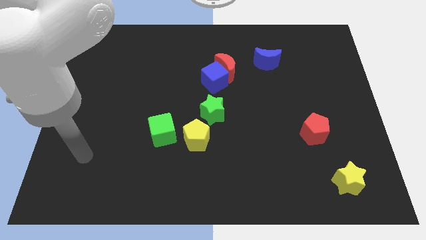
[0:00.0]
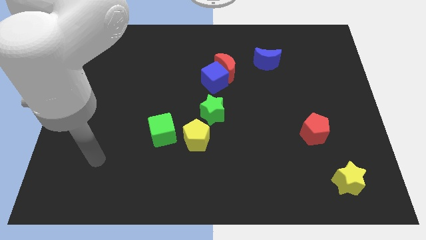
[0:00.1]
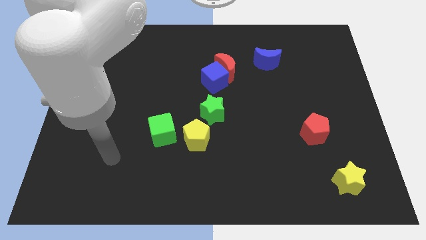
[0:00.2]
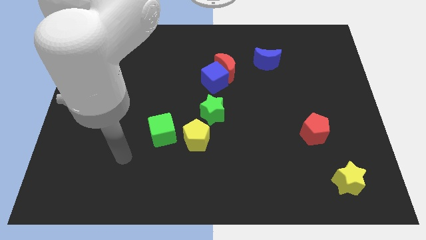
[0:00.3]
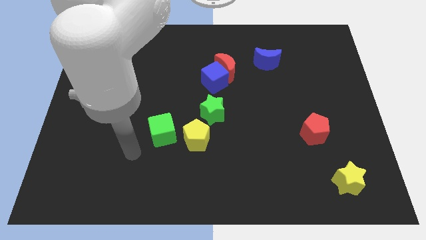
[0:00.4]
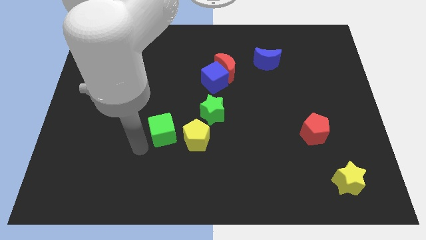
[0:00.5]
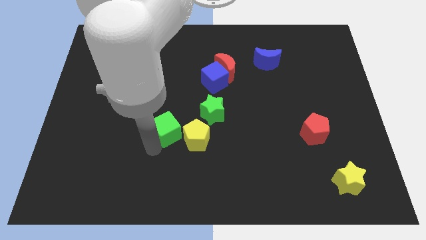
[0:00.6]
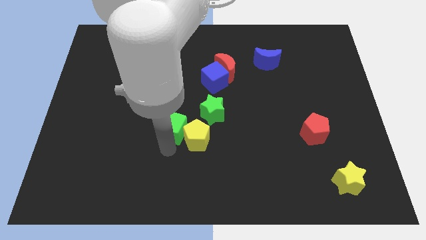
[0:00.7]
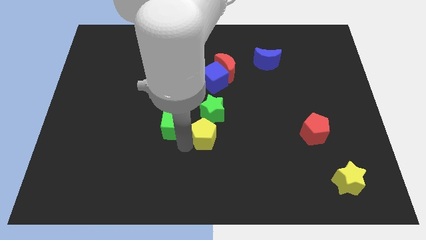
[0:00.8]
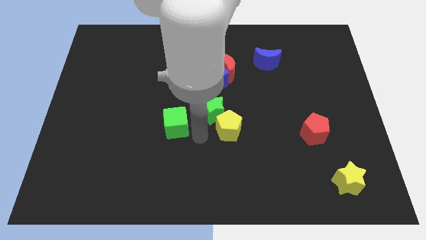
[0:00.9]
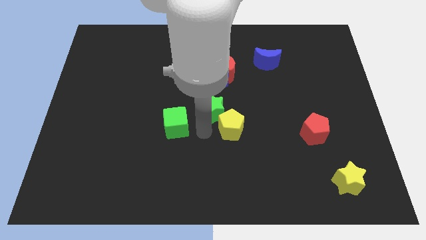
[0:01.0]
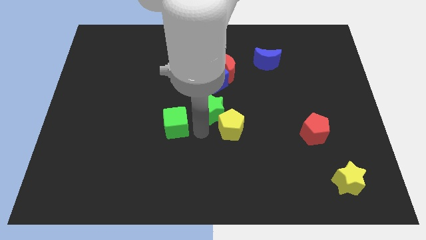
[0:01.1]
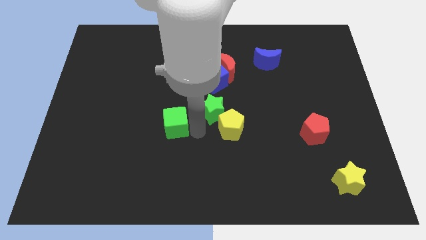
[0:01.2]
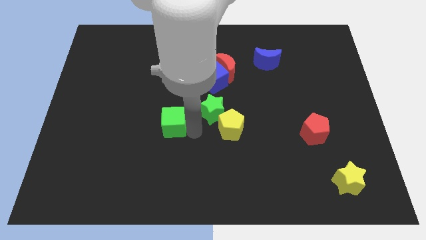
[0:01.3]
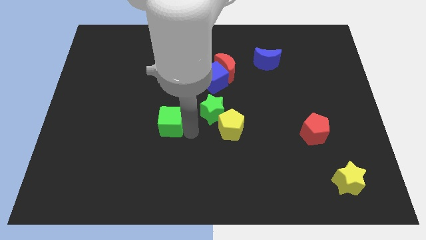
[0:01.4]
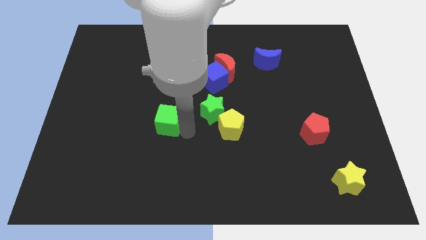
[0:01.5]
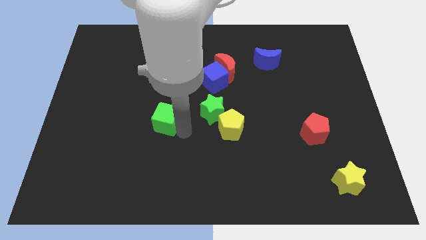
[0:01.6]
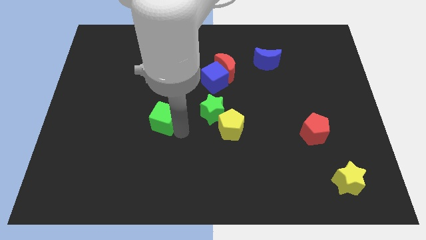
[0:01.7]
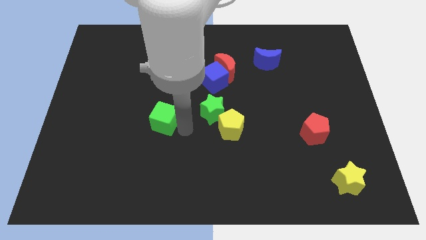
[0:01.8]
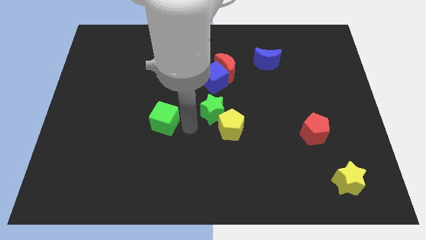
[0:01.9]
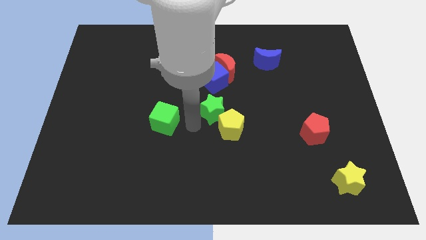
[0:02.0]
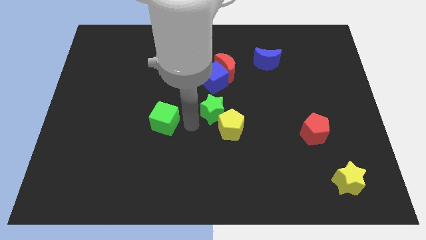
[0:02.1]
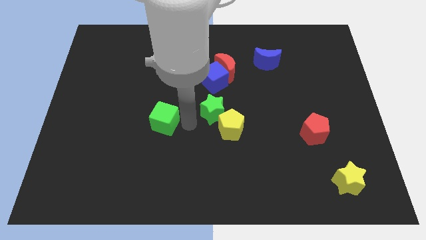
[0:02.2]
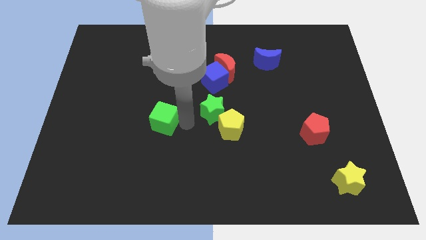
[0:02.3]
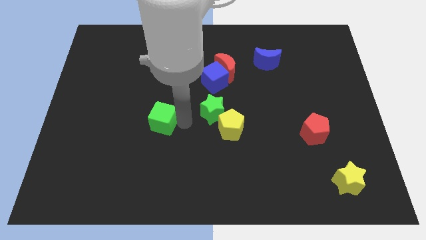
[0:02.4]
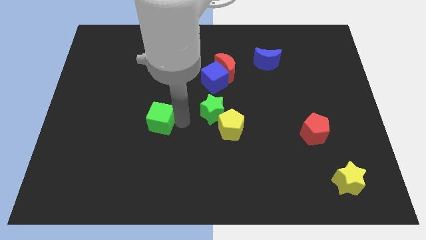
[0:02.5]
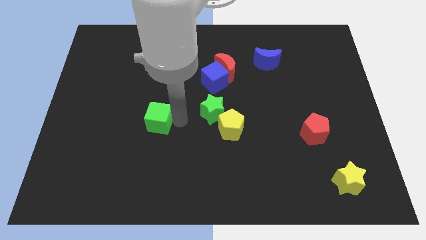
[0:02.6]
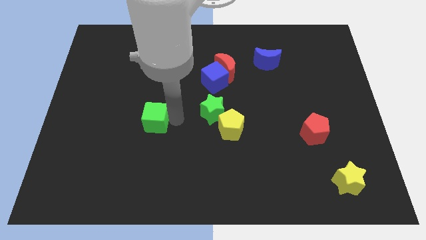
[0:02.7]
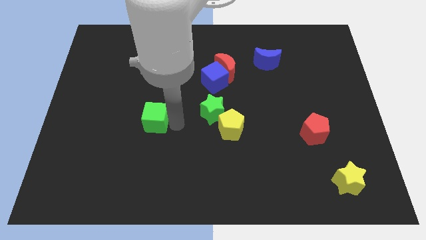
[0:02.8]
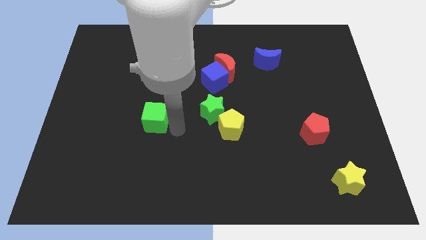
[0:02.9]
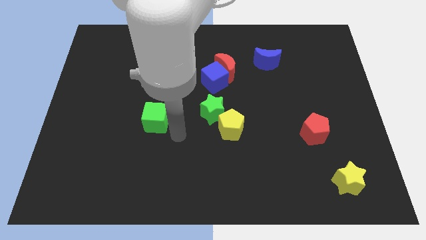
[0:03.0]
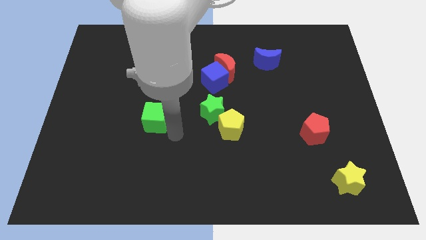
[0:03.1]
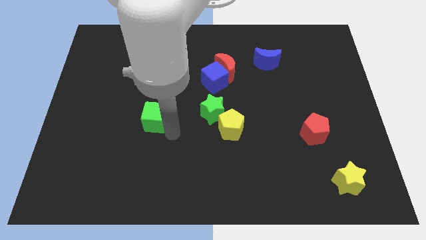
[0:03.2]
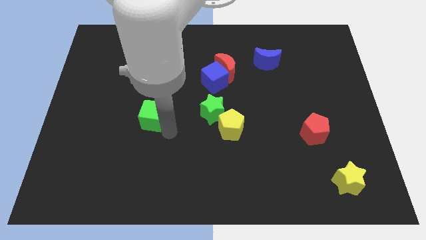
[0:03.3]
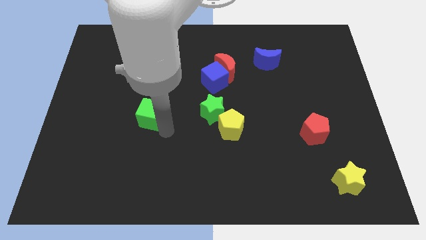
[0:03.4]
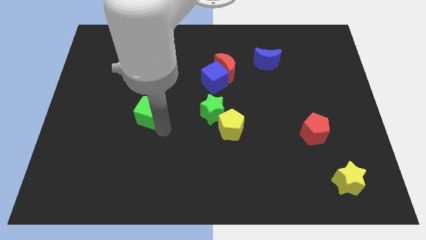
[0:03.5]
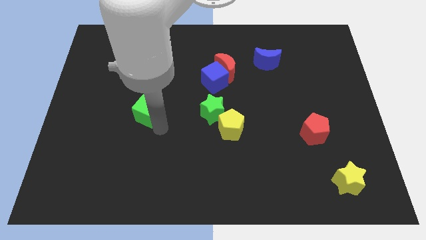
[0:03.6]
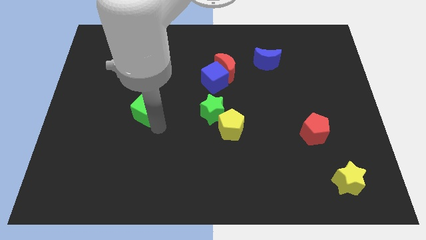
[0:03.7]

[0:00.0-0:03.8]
slide the green cube upwards and left somewhat

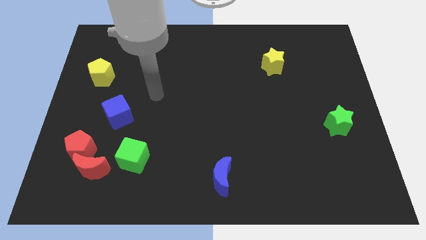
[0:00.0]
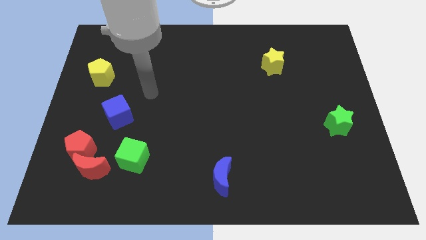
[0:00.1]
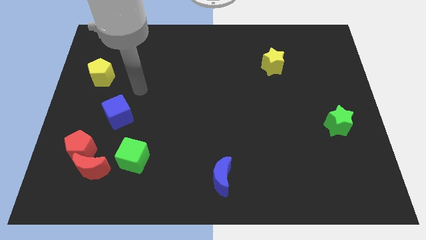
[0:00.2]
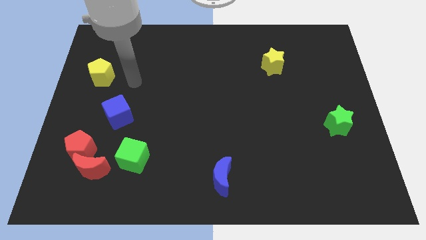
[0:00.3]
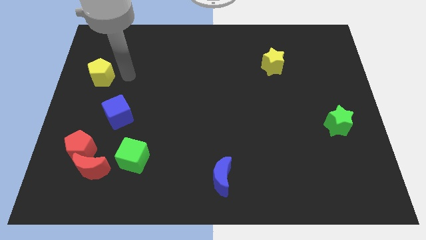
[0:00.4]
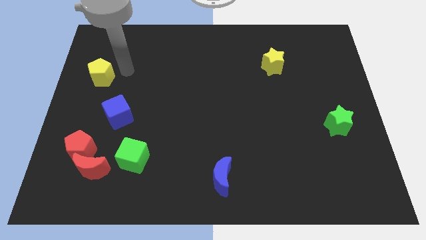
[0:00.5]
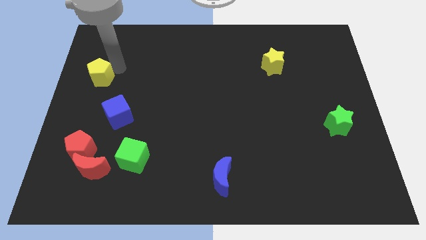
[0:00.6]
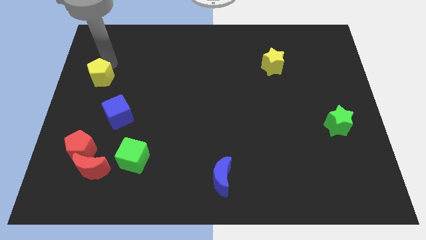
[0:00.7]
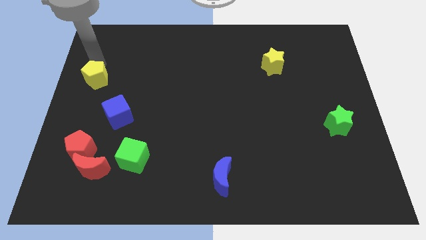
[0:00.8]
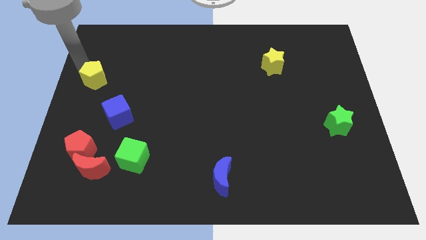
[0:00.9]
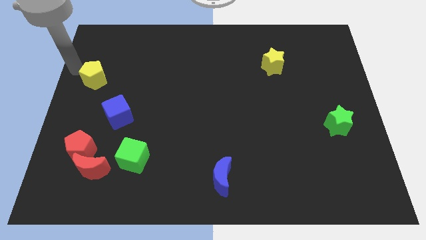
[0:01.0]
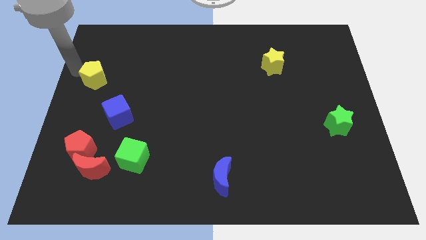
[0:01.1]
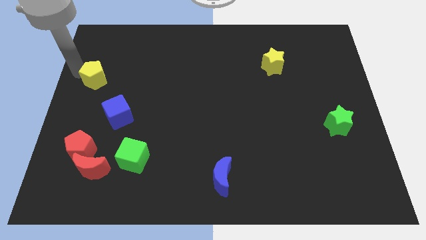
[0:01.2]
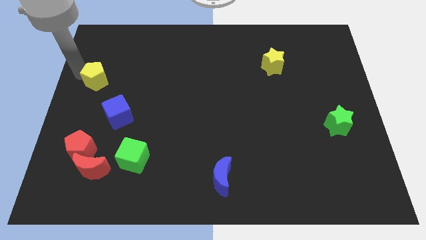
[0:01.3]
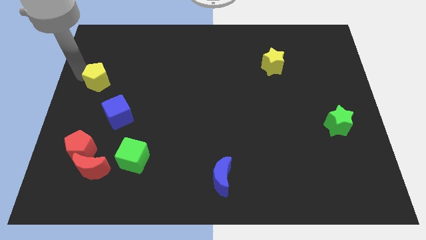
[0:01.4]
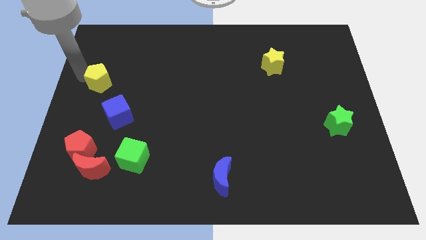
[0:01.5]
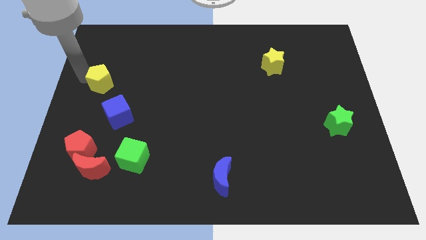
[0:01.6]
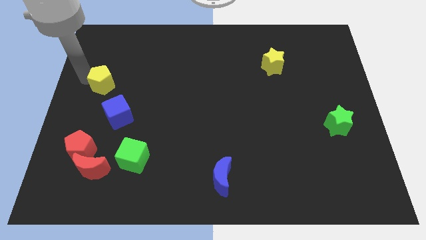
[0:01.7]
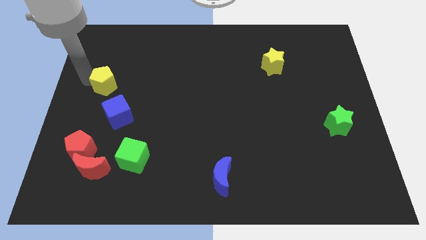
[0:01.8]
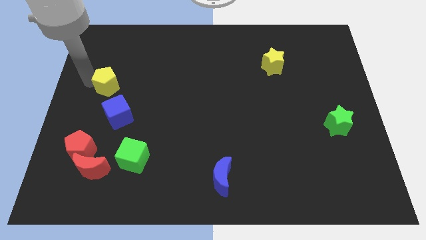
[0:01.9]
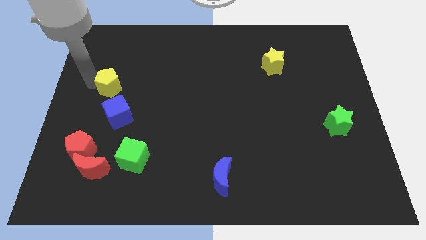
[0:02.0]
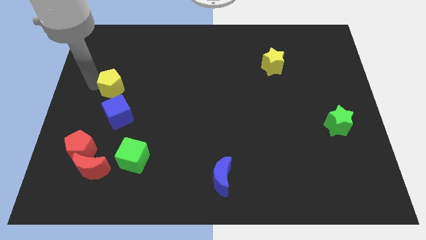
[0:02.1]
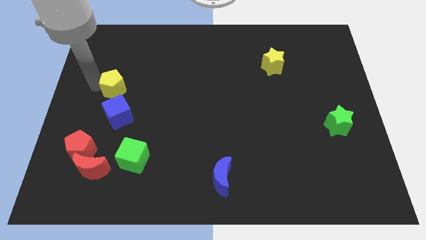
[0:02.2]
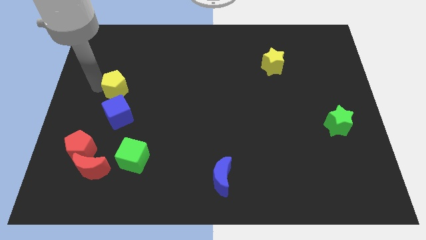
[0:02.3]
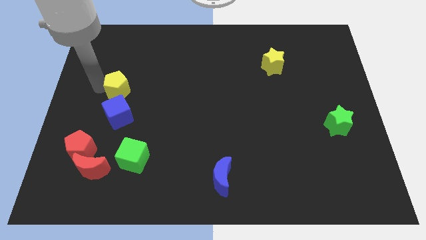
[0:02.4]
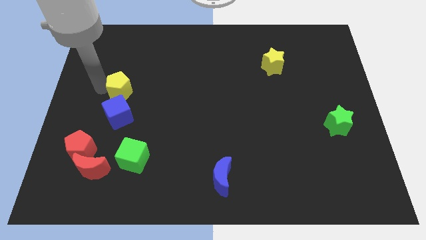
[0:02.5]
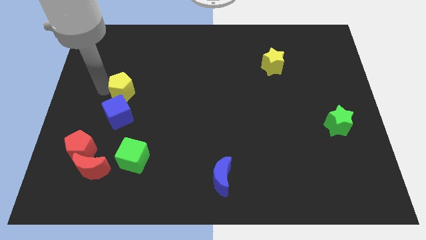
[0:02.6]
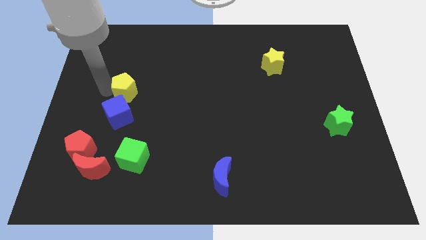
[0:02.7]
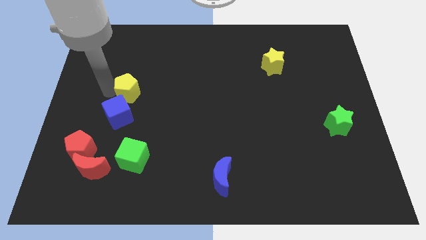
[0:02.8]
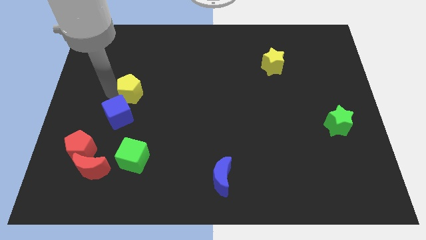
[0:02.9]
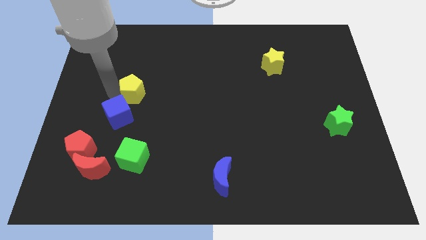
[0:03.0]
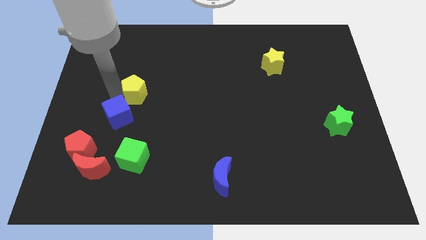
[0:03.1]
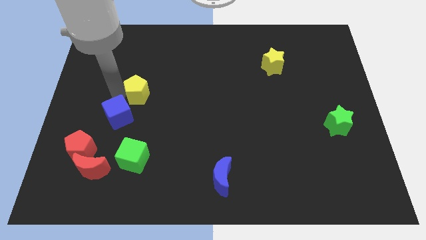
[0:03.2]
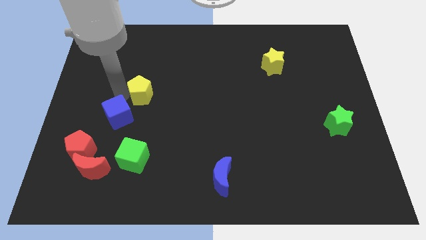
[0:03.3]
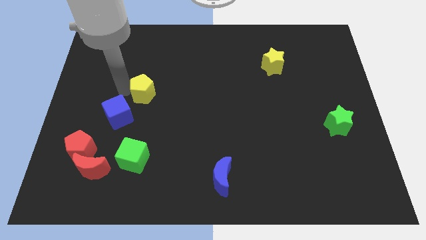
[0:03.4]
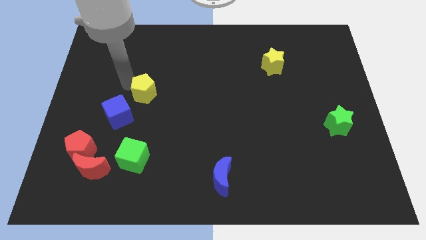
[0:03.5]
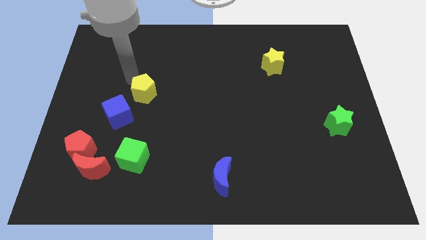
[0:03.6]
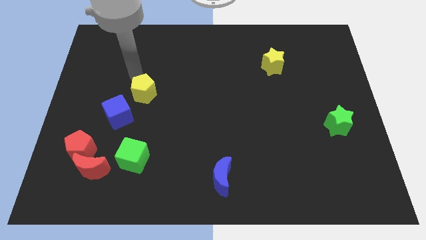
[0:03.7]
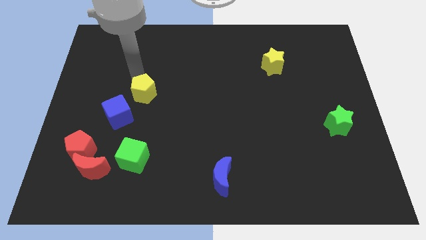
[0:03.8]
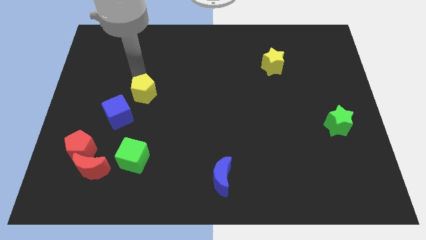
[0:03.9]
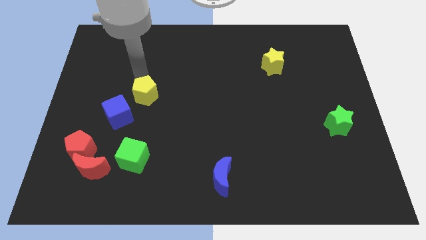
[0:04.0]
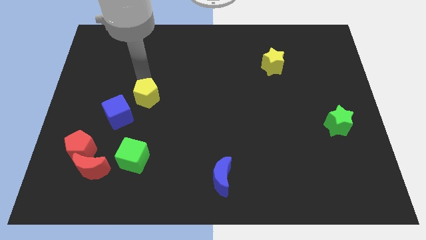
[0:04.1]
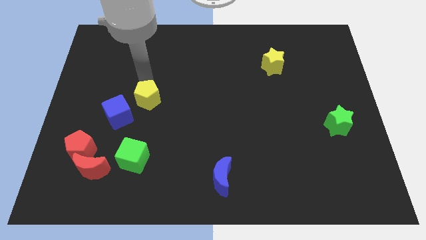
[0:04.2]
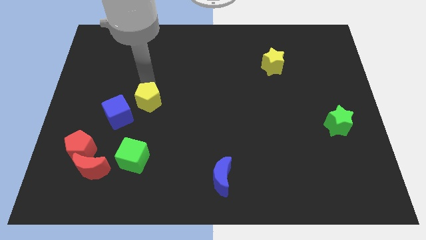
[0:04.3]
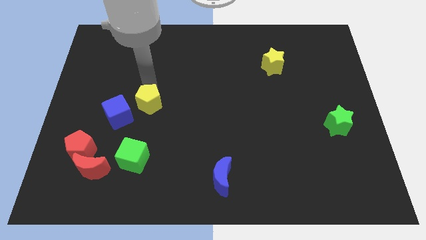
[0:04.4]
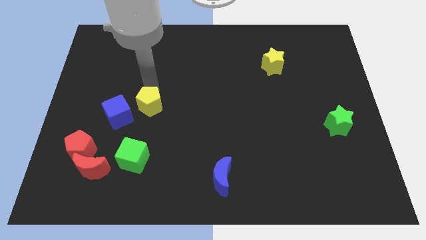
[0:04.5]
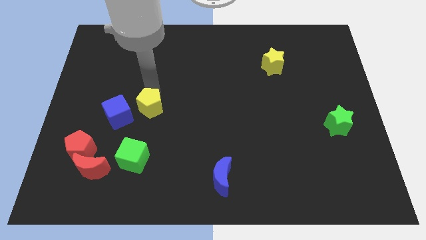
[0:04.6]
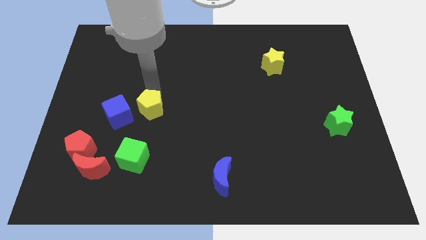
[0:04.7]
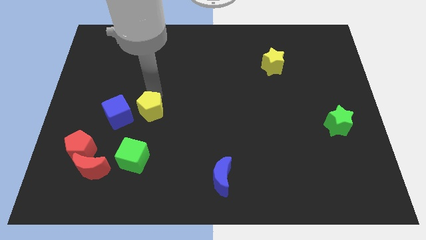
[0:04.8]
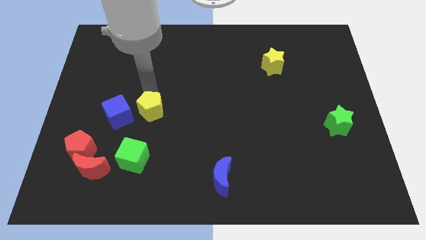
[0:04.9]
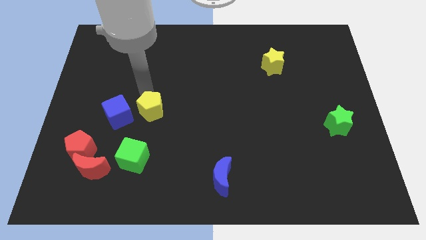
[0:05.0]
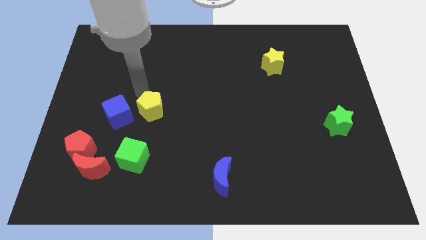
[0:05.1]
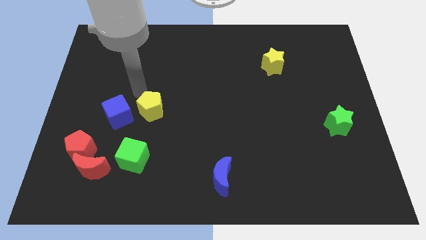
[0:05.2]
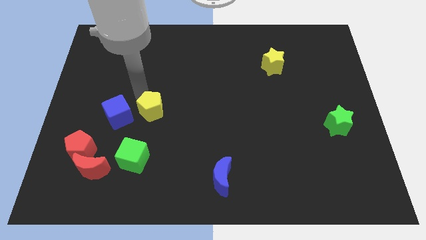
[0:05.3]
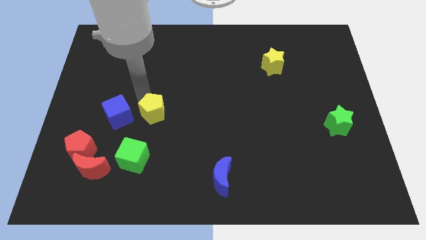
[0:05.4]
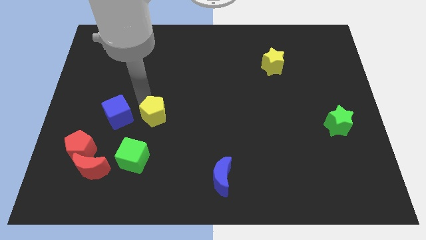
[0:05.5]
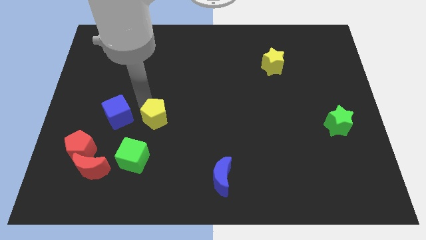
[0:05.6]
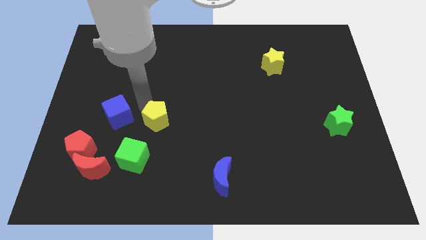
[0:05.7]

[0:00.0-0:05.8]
push the yellow pentagon downwards and right diagonally
